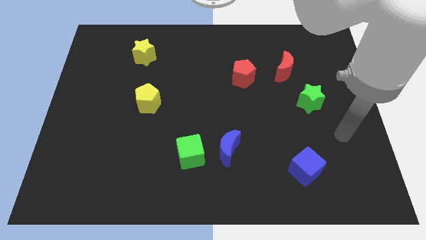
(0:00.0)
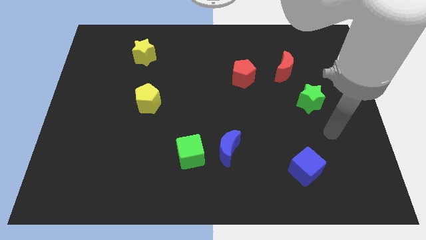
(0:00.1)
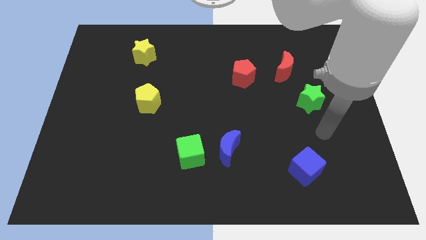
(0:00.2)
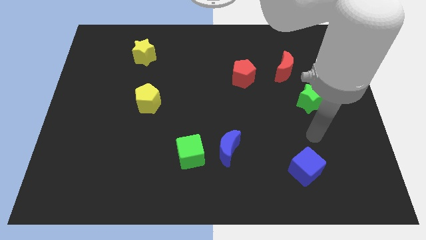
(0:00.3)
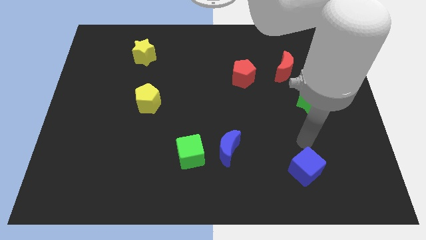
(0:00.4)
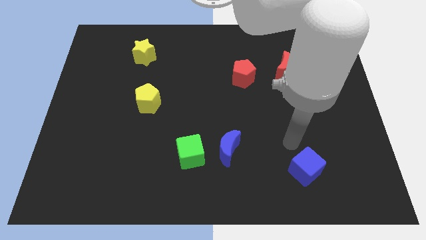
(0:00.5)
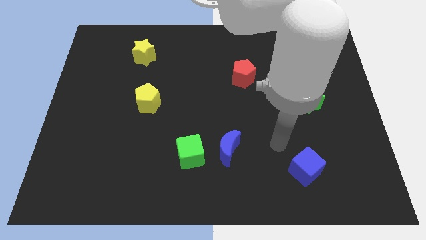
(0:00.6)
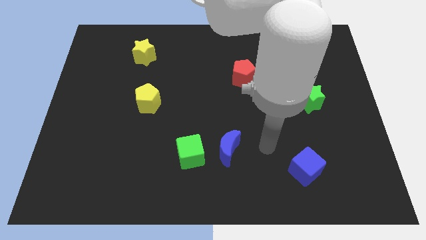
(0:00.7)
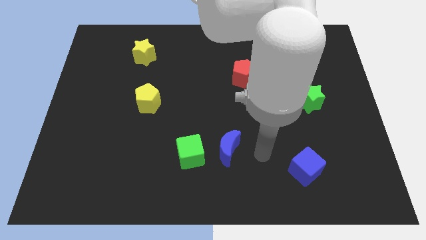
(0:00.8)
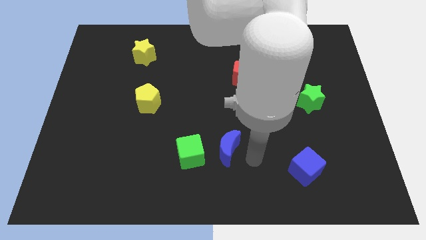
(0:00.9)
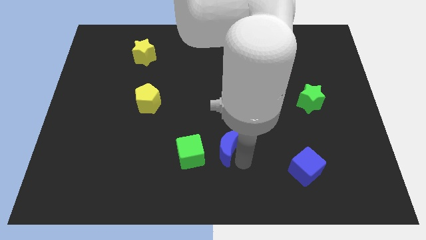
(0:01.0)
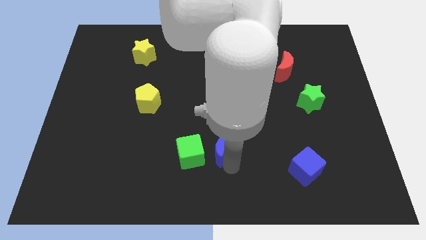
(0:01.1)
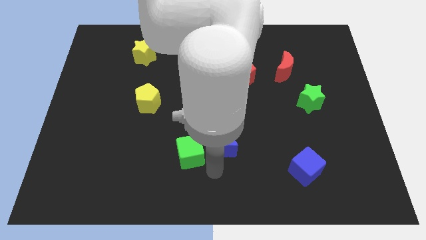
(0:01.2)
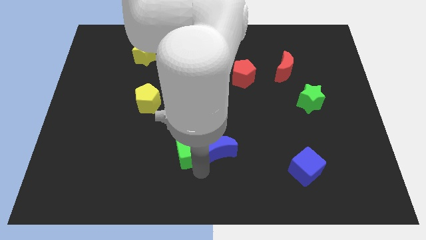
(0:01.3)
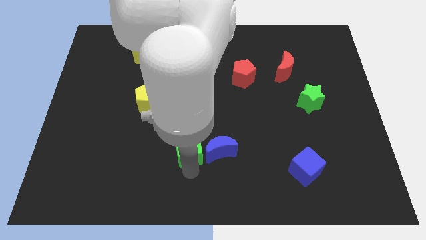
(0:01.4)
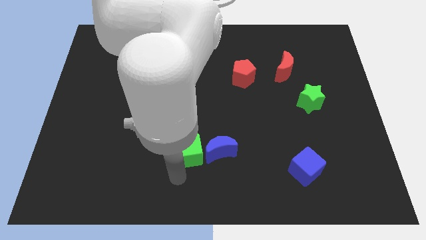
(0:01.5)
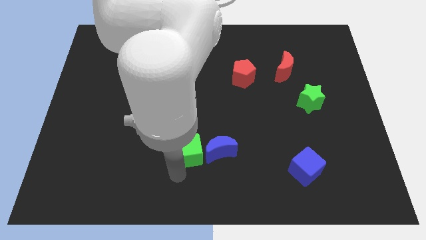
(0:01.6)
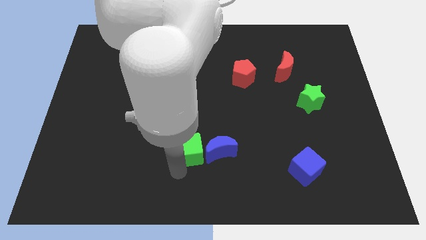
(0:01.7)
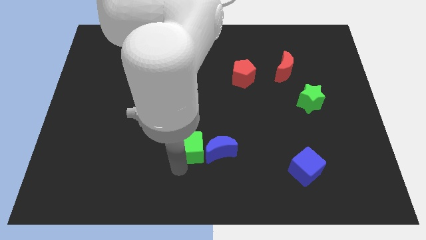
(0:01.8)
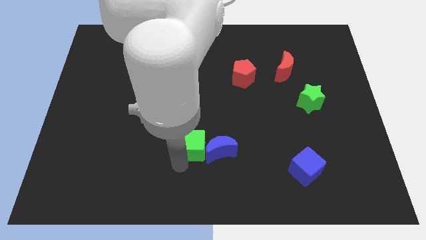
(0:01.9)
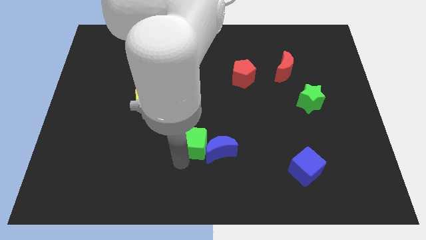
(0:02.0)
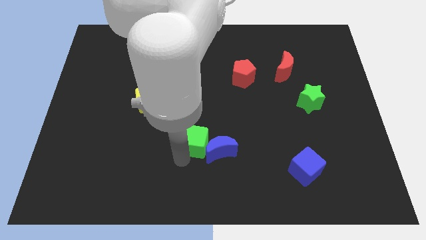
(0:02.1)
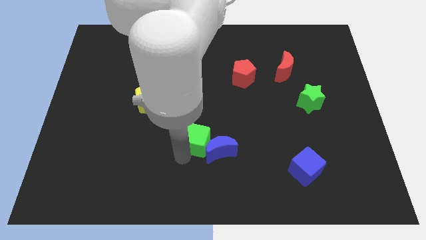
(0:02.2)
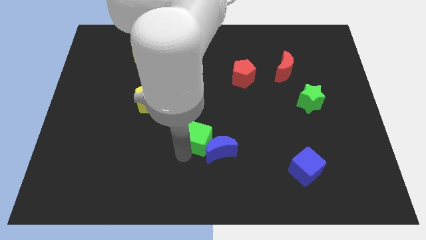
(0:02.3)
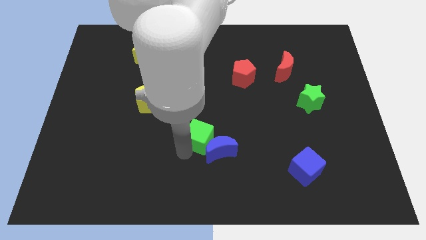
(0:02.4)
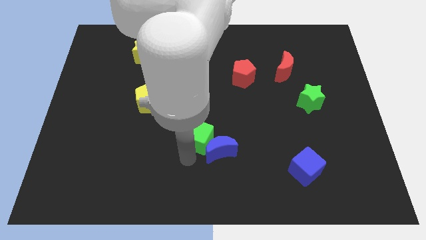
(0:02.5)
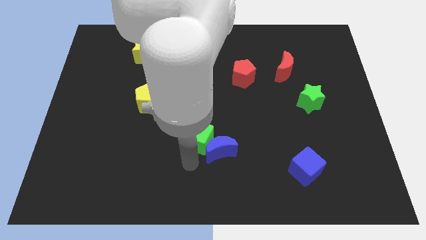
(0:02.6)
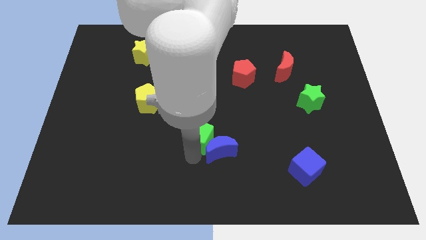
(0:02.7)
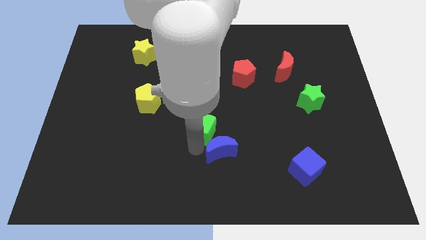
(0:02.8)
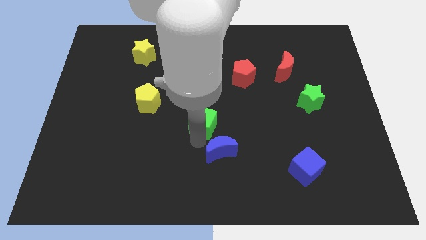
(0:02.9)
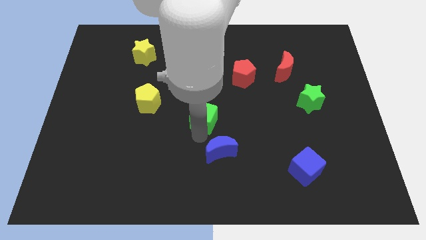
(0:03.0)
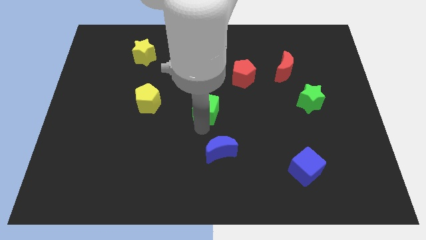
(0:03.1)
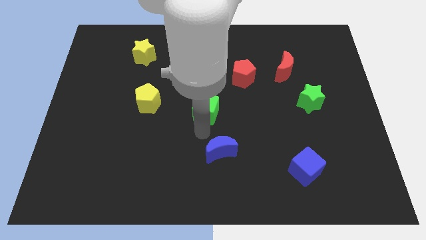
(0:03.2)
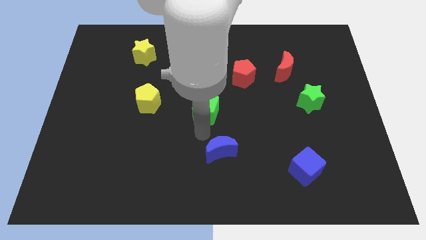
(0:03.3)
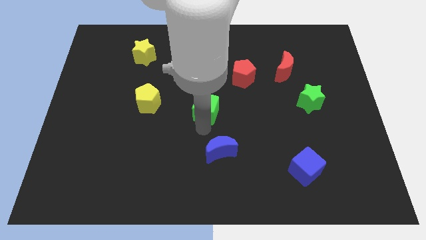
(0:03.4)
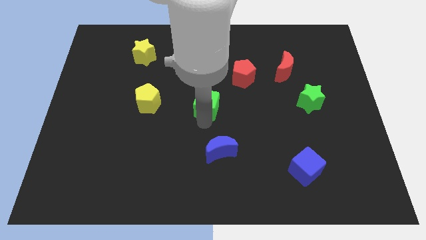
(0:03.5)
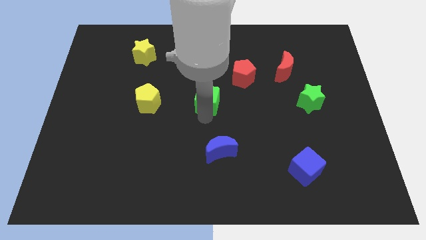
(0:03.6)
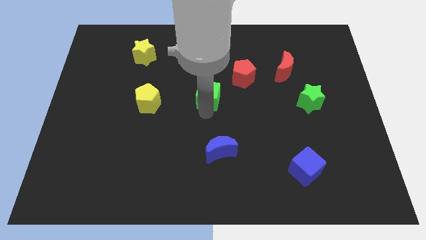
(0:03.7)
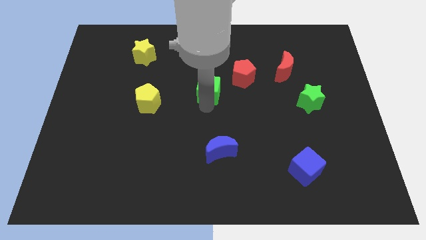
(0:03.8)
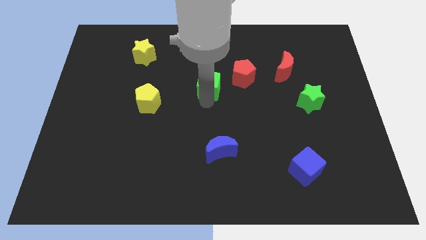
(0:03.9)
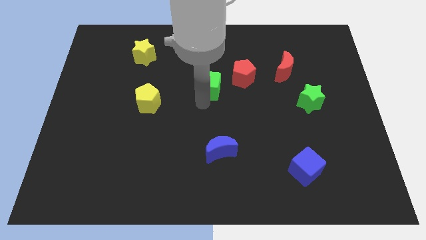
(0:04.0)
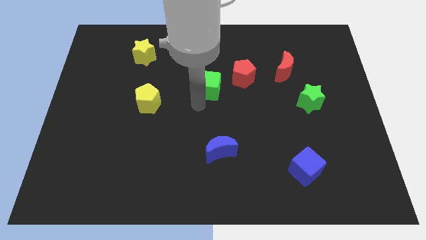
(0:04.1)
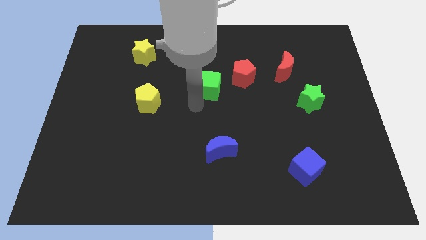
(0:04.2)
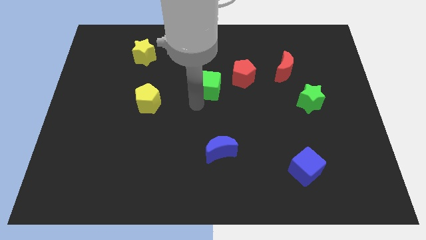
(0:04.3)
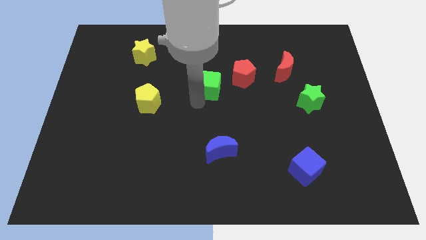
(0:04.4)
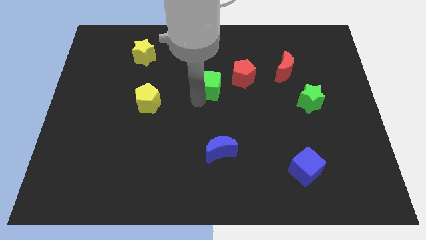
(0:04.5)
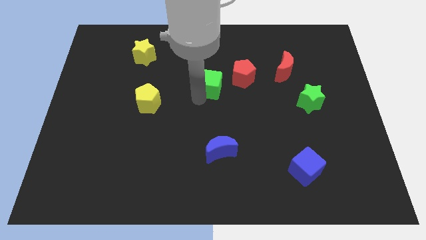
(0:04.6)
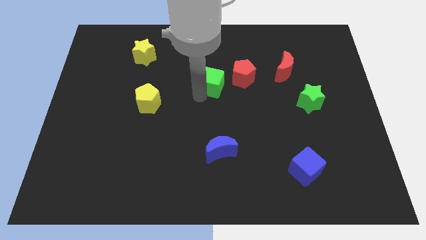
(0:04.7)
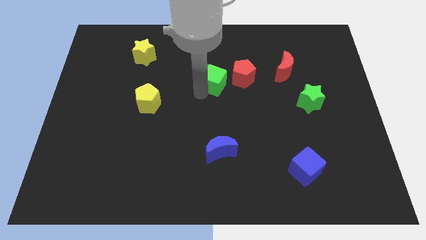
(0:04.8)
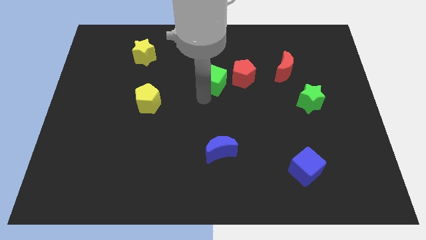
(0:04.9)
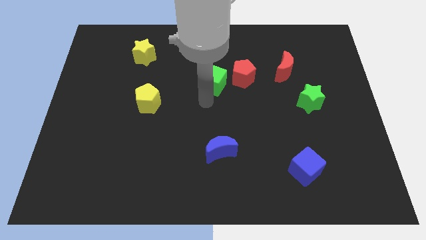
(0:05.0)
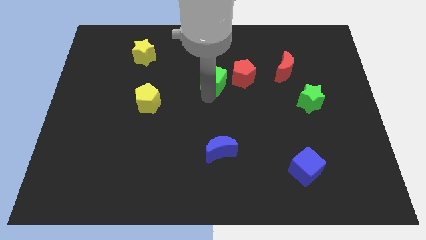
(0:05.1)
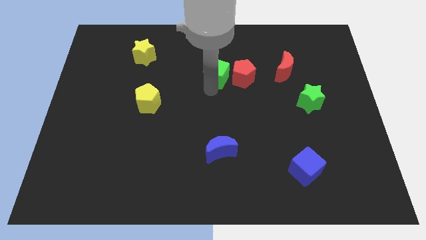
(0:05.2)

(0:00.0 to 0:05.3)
put the green cube to the top left of the red pentagon

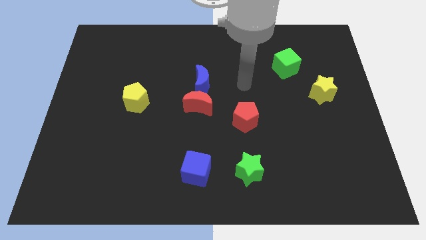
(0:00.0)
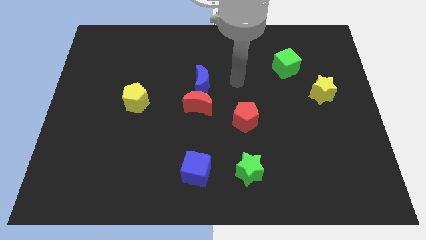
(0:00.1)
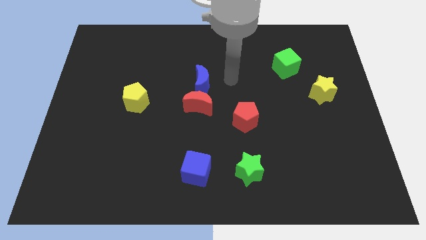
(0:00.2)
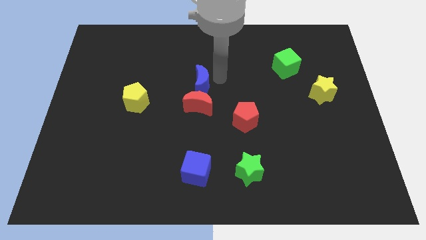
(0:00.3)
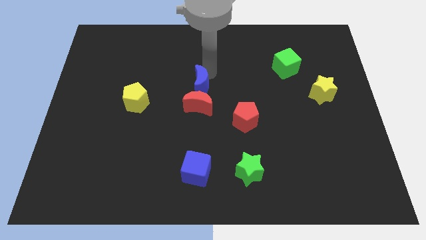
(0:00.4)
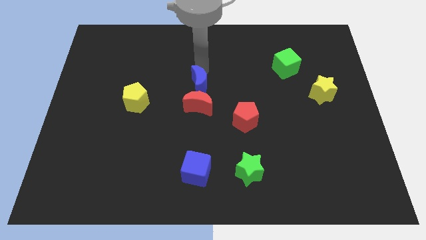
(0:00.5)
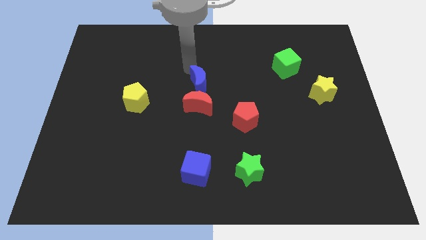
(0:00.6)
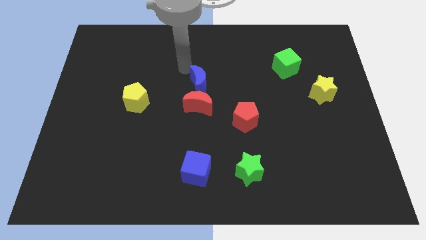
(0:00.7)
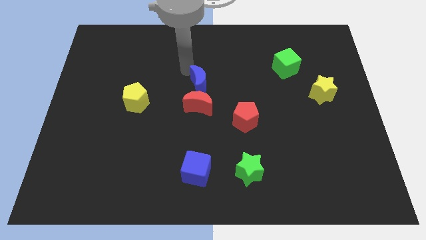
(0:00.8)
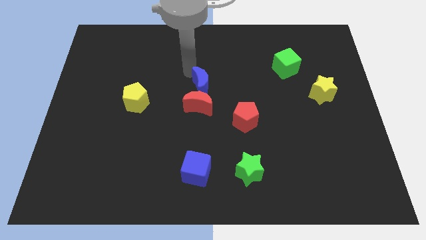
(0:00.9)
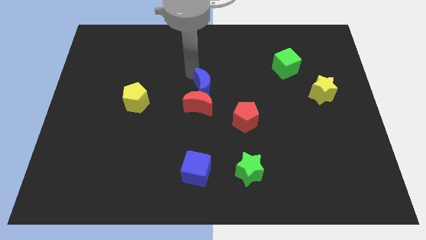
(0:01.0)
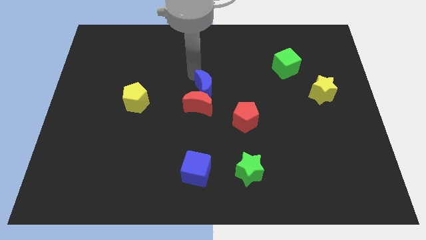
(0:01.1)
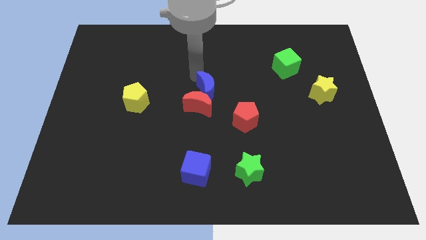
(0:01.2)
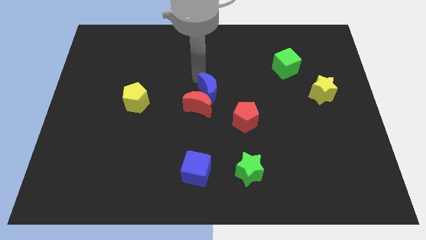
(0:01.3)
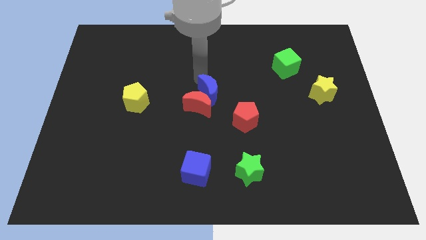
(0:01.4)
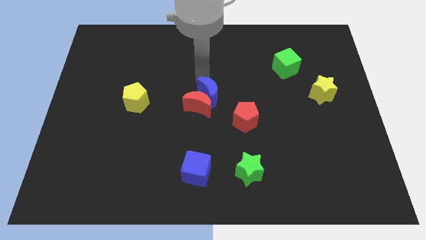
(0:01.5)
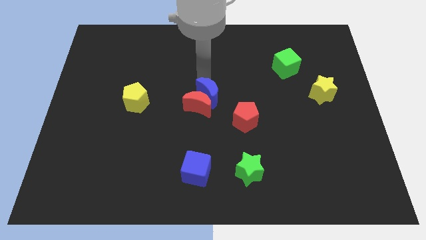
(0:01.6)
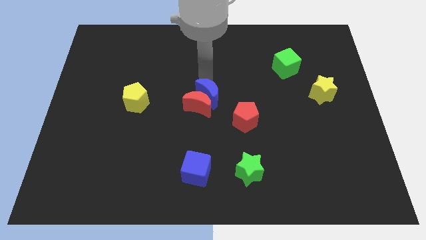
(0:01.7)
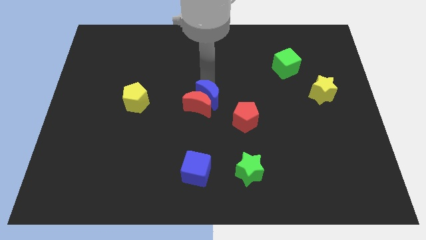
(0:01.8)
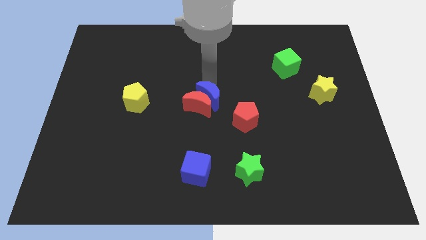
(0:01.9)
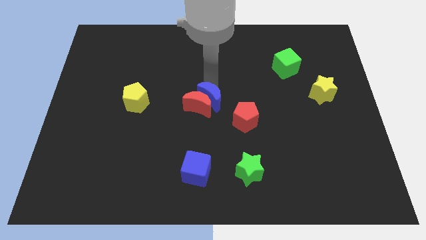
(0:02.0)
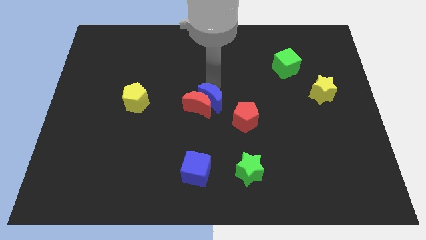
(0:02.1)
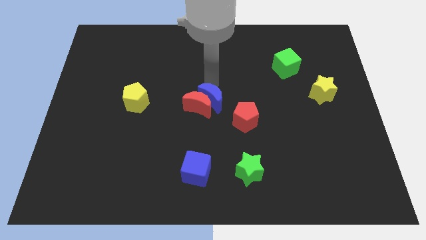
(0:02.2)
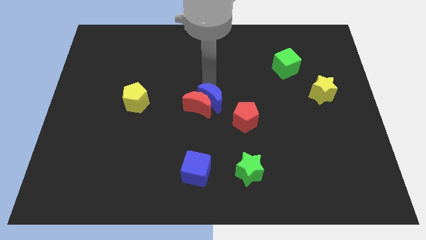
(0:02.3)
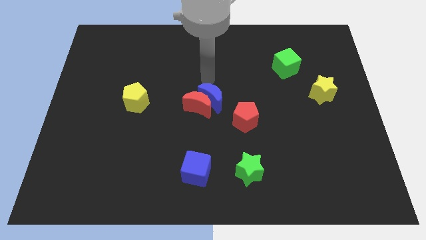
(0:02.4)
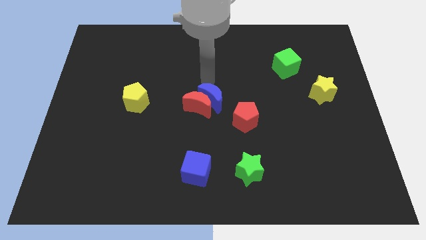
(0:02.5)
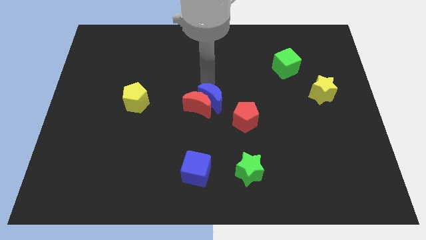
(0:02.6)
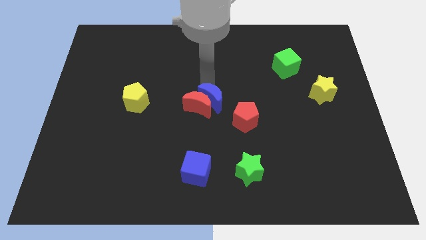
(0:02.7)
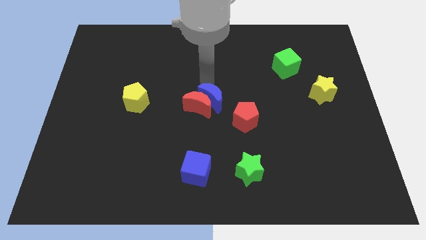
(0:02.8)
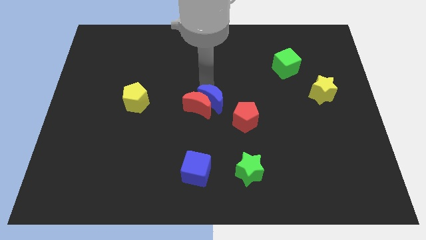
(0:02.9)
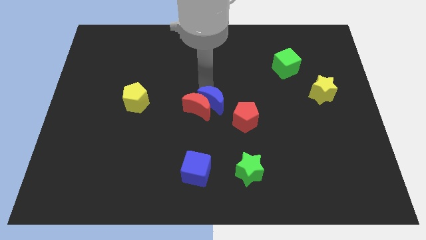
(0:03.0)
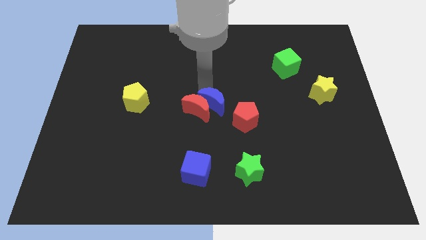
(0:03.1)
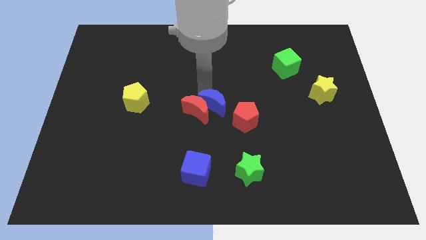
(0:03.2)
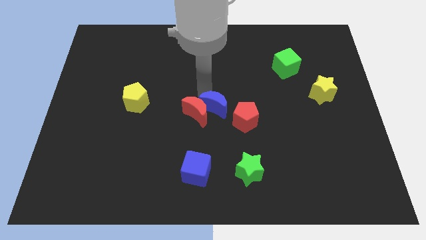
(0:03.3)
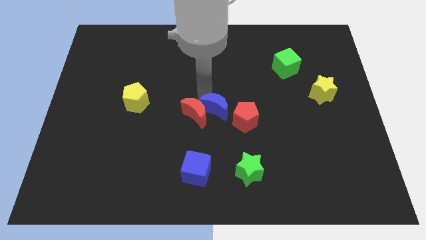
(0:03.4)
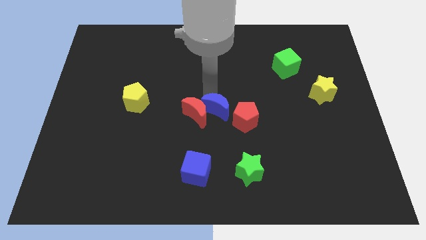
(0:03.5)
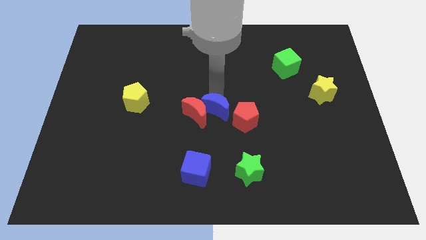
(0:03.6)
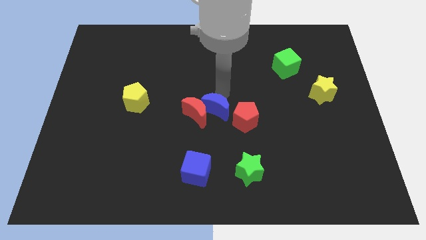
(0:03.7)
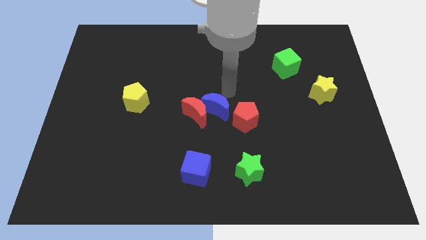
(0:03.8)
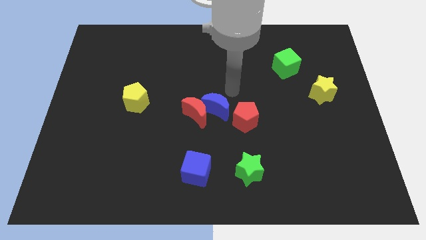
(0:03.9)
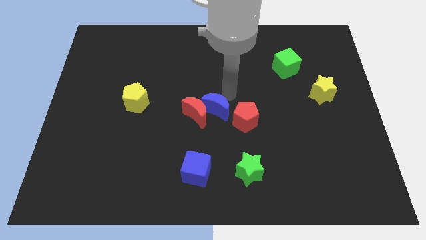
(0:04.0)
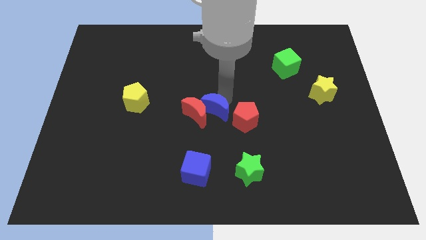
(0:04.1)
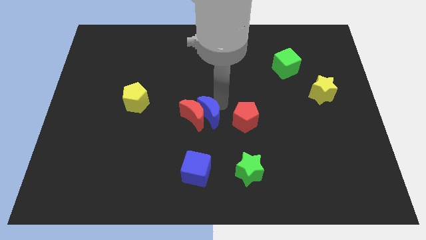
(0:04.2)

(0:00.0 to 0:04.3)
push the blue moon to the top of the blue cube
